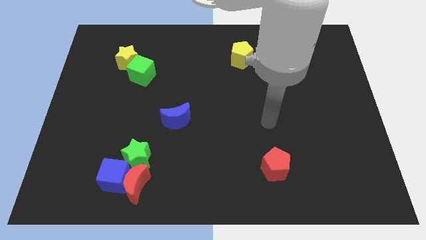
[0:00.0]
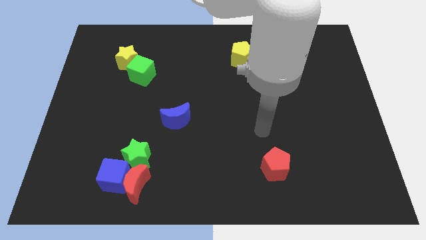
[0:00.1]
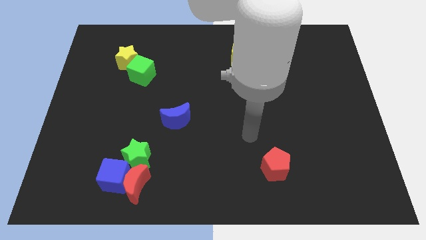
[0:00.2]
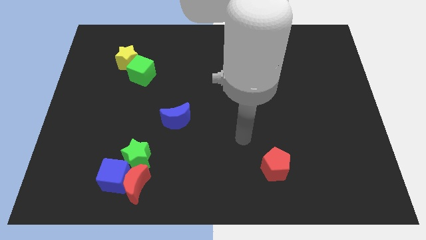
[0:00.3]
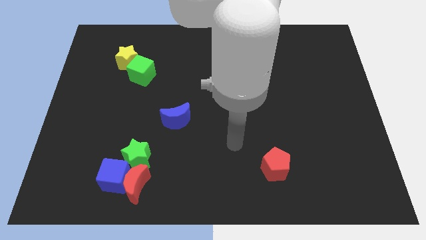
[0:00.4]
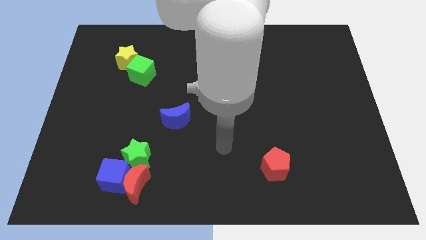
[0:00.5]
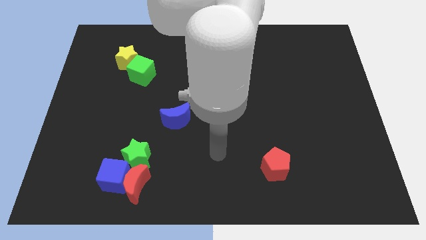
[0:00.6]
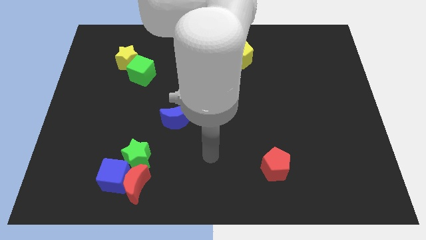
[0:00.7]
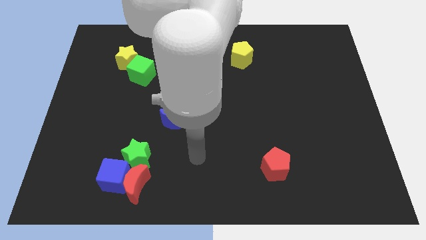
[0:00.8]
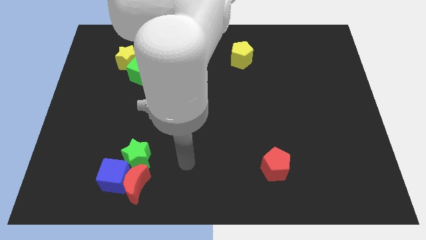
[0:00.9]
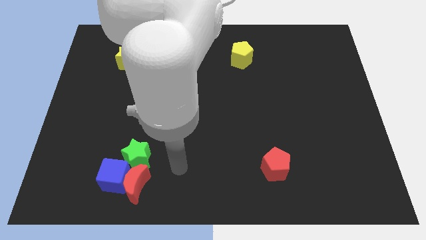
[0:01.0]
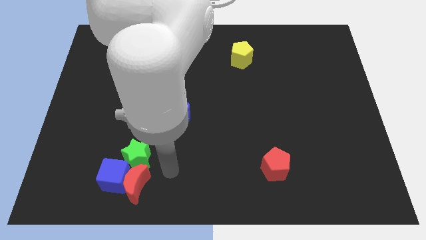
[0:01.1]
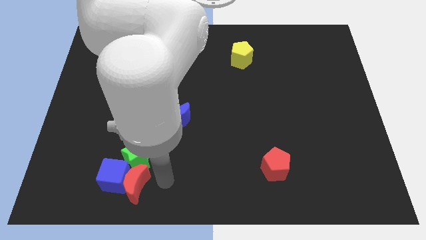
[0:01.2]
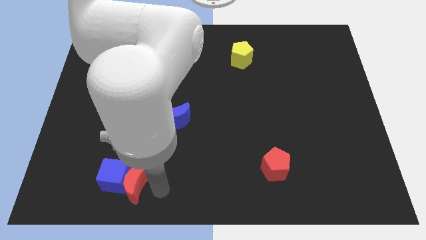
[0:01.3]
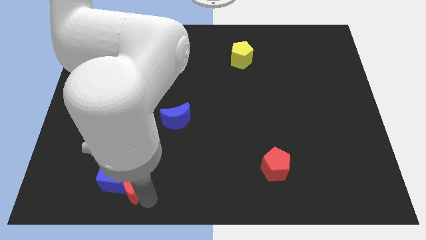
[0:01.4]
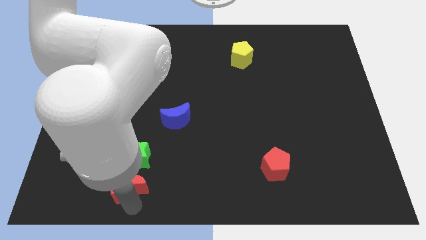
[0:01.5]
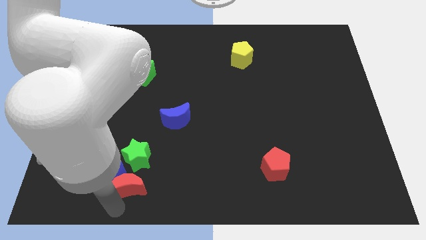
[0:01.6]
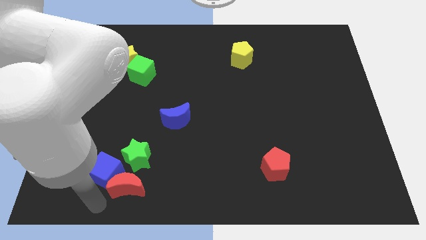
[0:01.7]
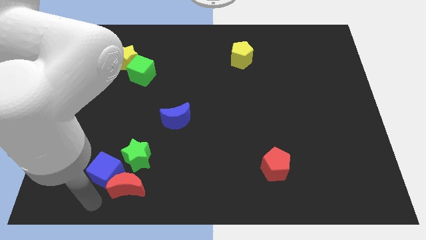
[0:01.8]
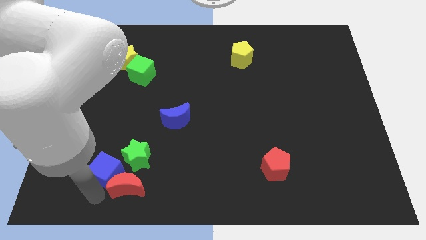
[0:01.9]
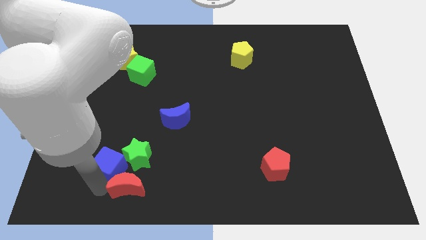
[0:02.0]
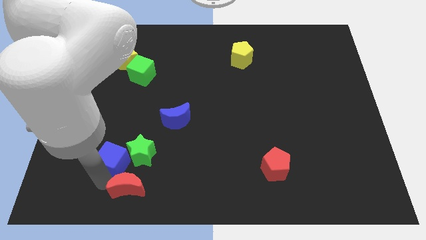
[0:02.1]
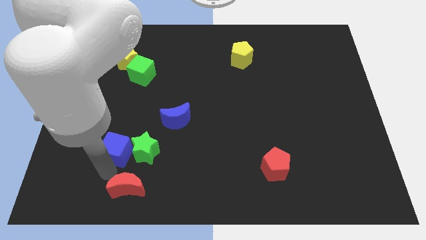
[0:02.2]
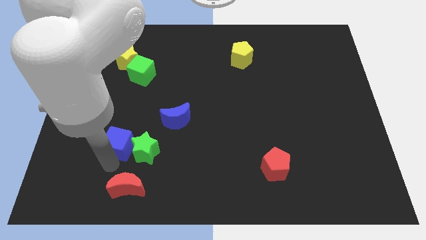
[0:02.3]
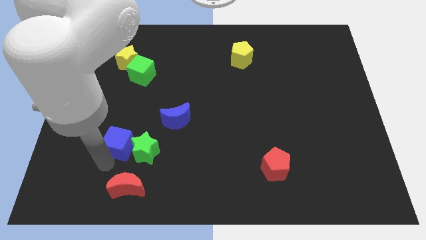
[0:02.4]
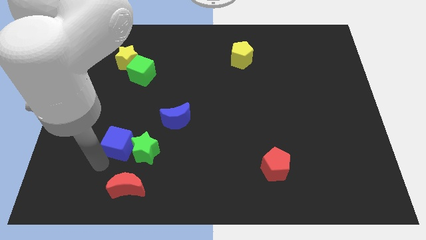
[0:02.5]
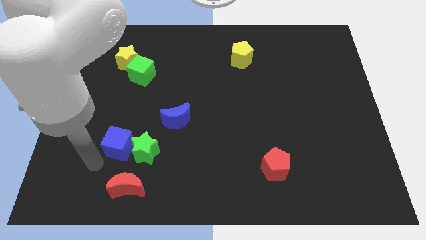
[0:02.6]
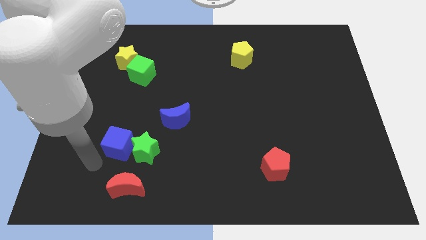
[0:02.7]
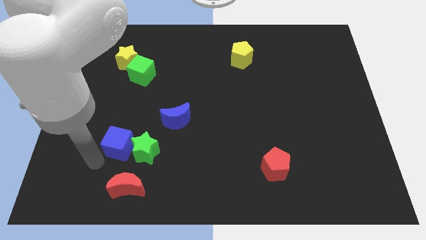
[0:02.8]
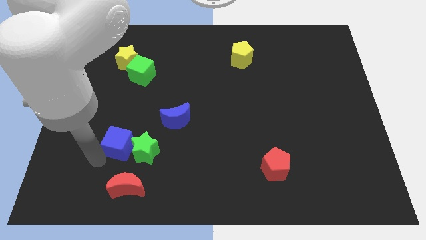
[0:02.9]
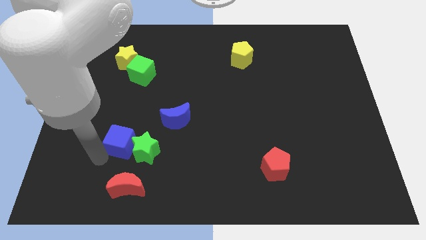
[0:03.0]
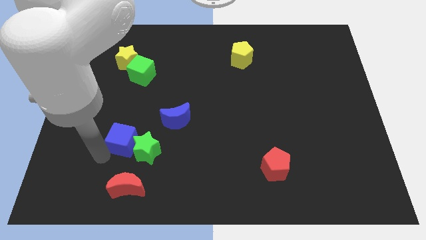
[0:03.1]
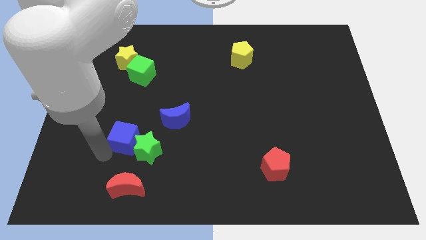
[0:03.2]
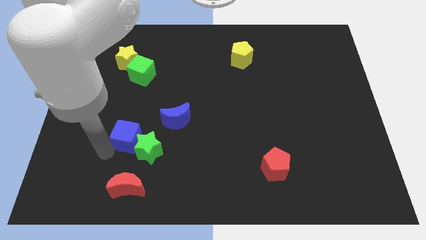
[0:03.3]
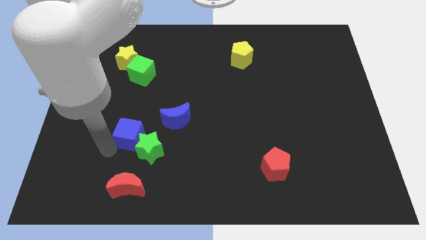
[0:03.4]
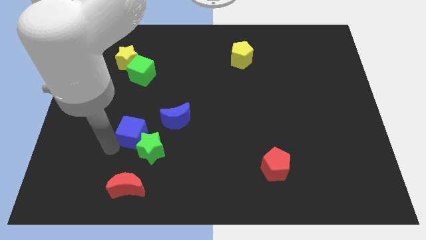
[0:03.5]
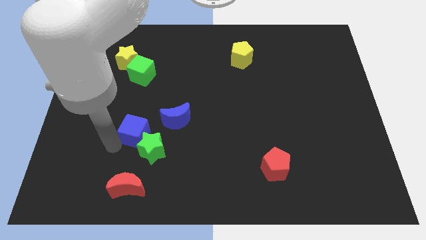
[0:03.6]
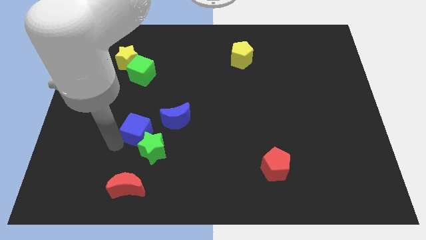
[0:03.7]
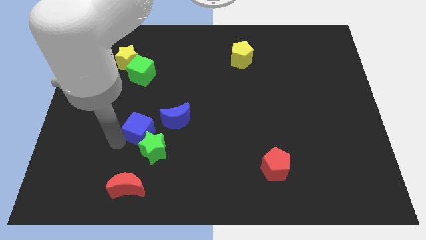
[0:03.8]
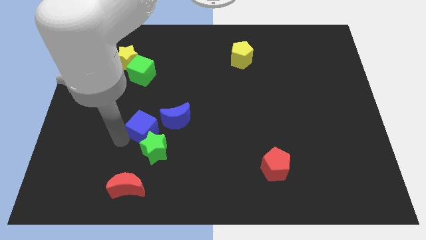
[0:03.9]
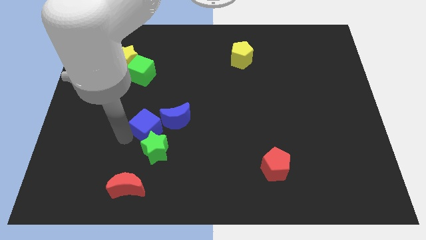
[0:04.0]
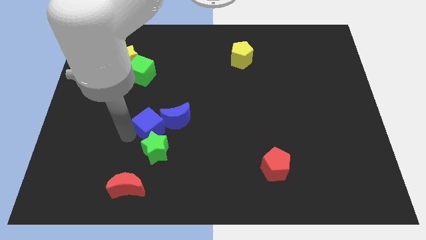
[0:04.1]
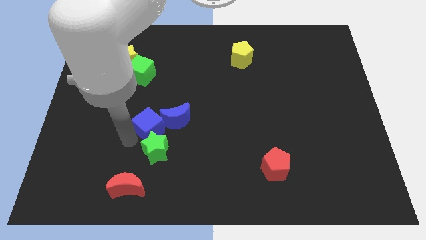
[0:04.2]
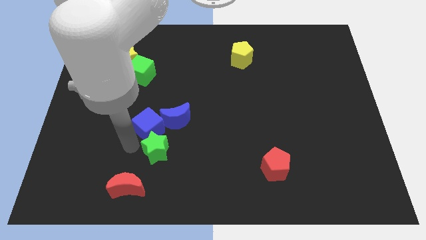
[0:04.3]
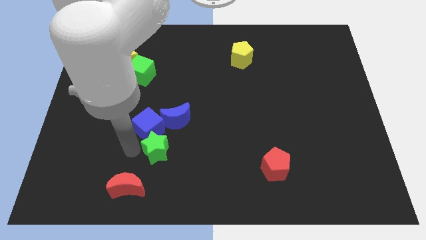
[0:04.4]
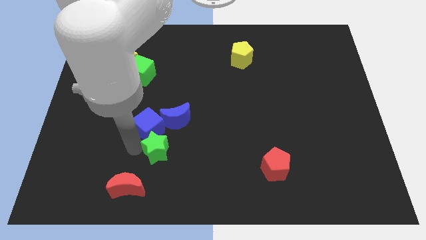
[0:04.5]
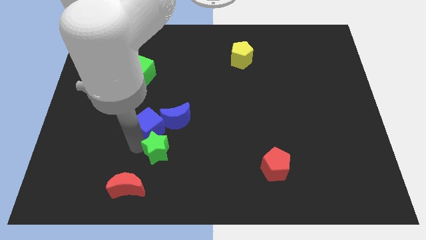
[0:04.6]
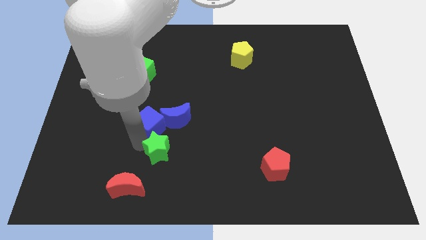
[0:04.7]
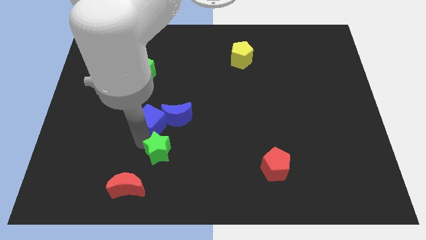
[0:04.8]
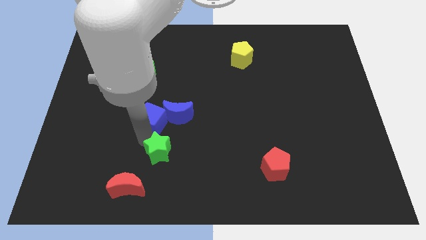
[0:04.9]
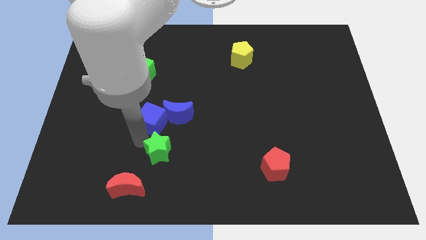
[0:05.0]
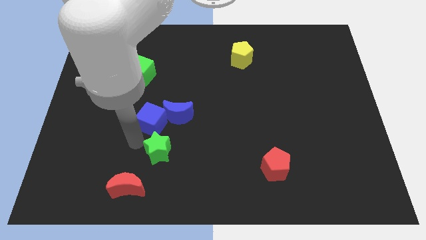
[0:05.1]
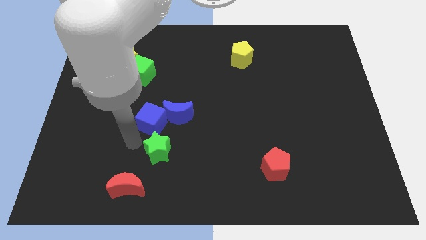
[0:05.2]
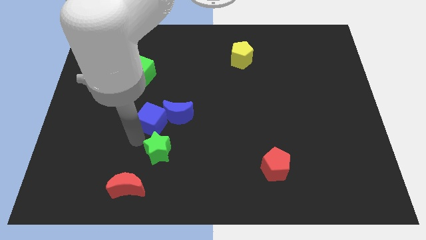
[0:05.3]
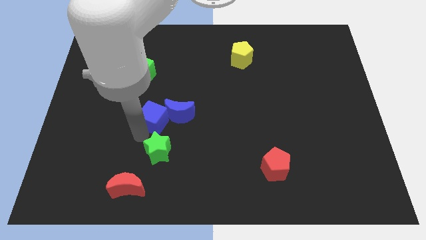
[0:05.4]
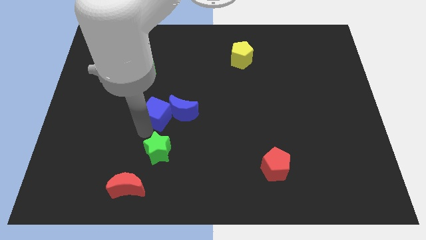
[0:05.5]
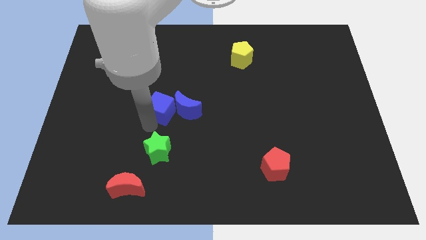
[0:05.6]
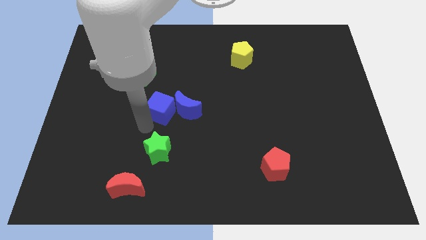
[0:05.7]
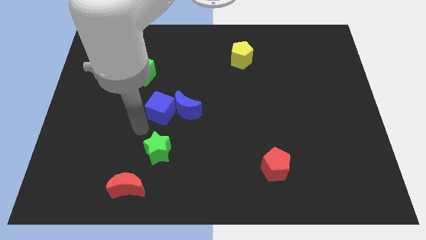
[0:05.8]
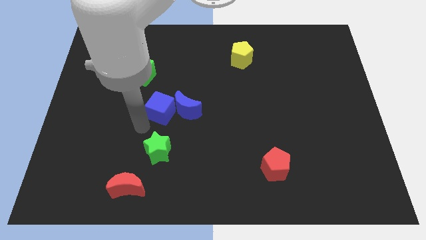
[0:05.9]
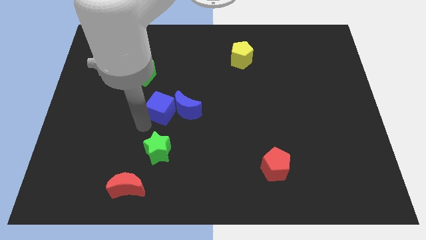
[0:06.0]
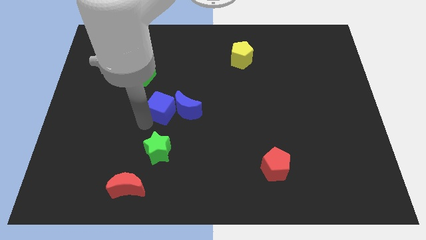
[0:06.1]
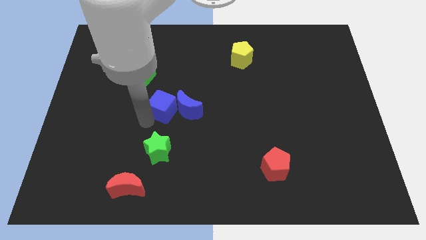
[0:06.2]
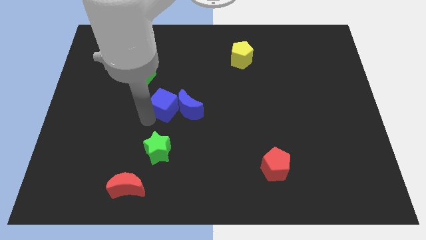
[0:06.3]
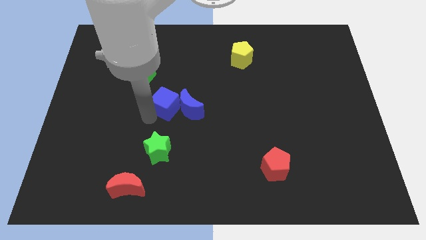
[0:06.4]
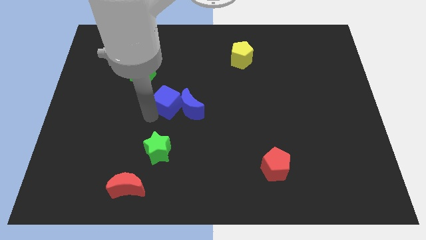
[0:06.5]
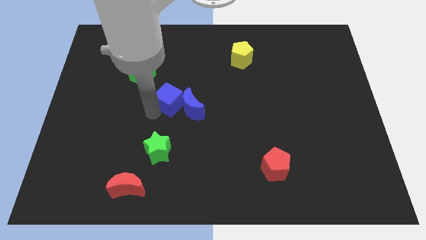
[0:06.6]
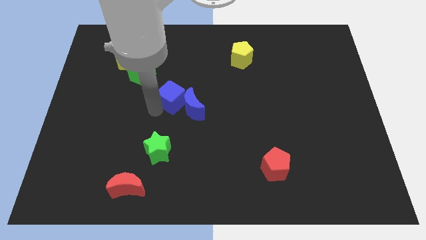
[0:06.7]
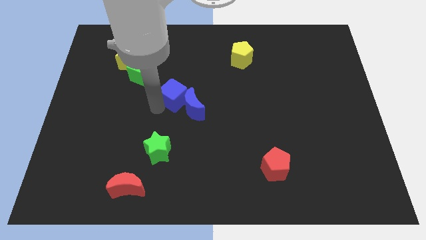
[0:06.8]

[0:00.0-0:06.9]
slide the blue cube upwards and right

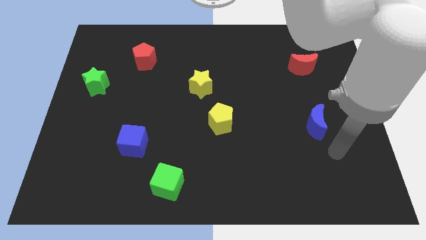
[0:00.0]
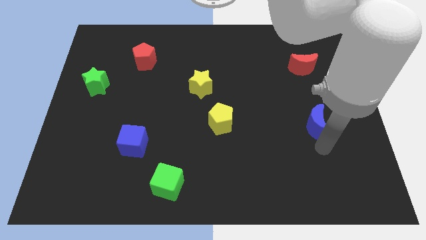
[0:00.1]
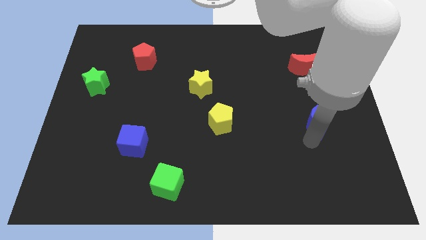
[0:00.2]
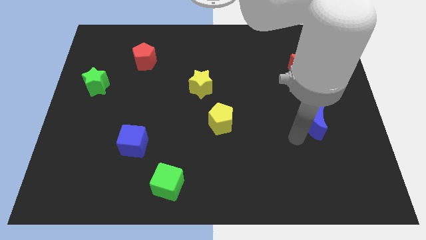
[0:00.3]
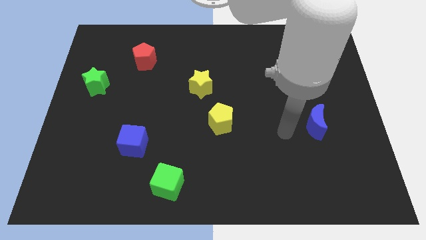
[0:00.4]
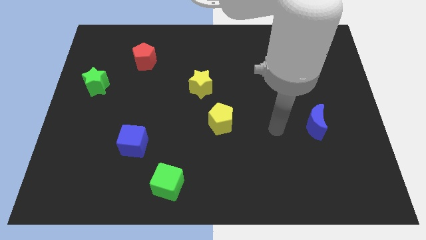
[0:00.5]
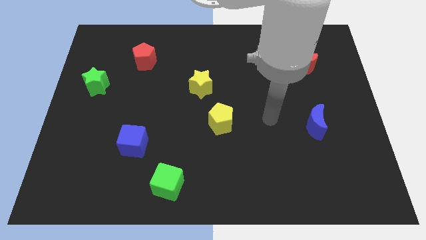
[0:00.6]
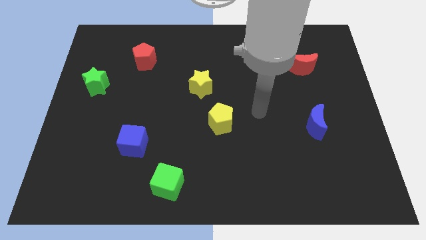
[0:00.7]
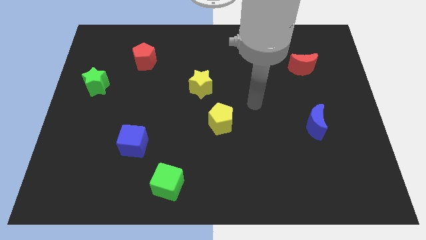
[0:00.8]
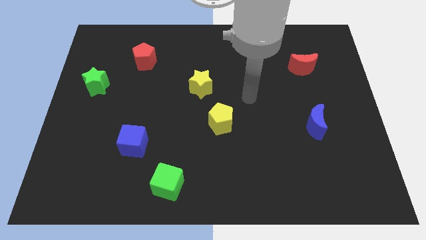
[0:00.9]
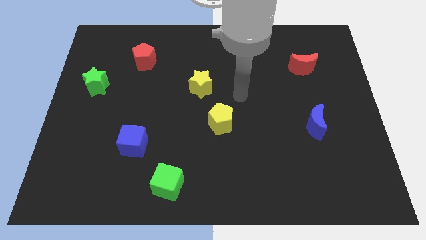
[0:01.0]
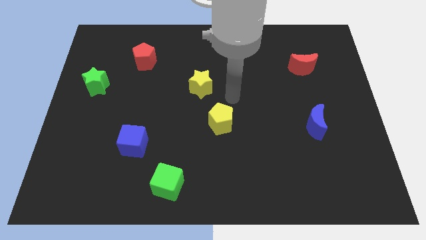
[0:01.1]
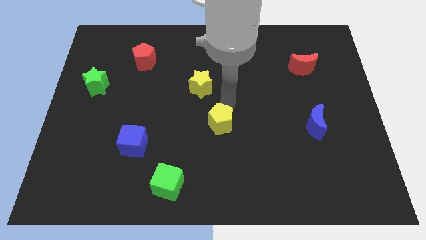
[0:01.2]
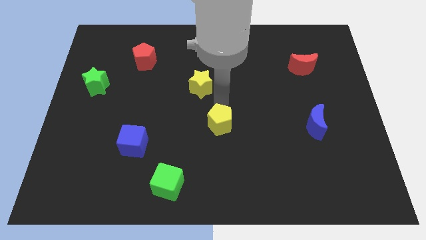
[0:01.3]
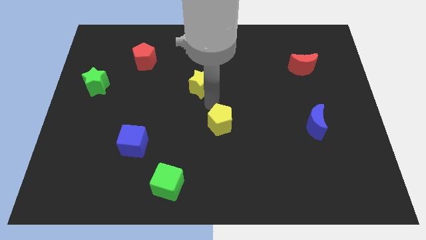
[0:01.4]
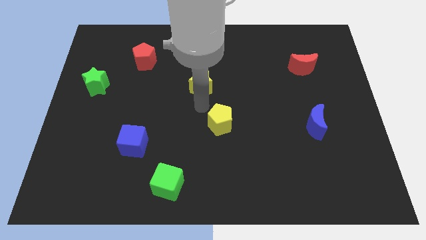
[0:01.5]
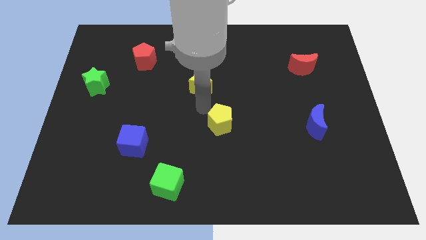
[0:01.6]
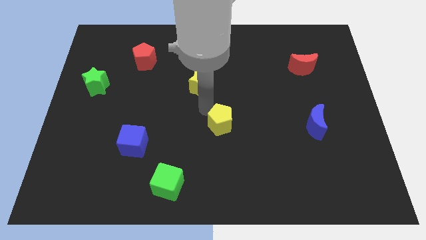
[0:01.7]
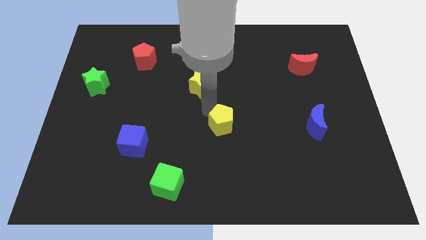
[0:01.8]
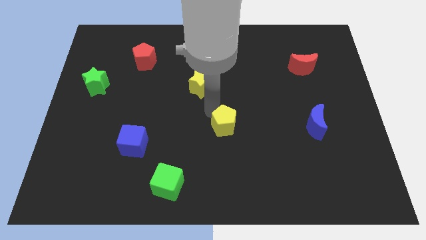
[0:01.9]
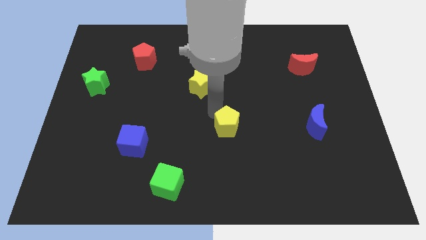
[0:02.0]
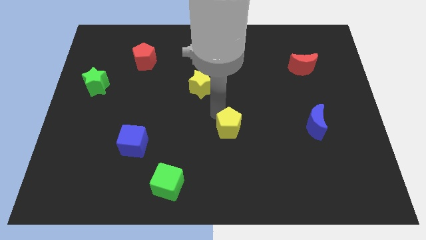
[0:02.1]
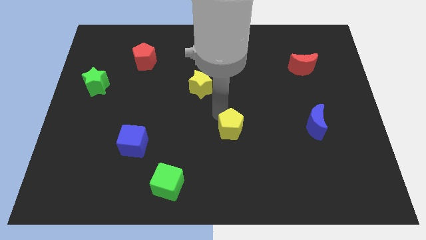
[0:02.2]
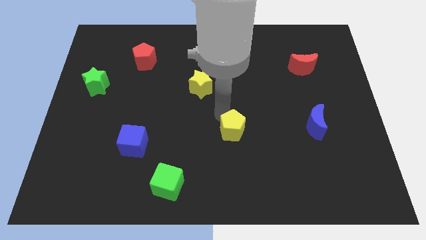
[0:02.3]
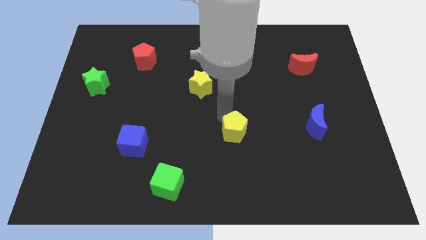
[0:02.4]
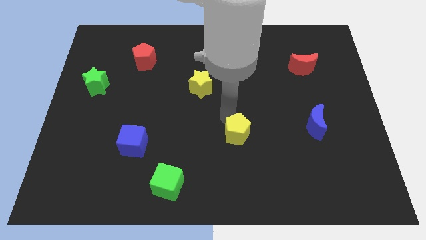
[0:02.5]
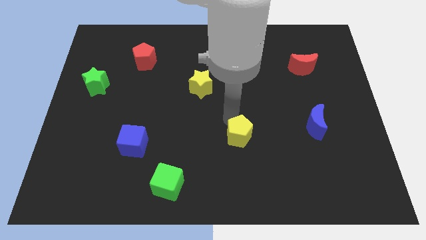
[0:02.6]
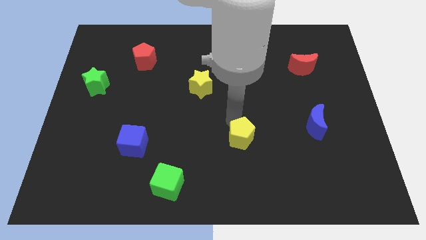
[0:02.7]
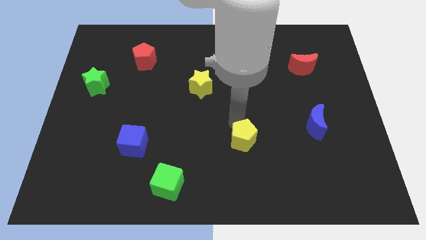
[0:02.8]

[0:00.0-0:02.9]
push the yellow pentagon down and right a little
